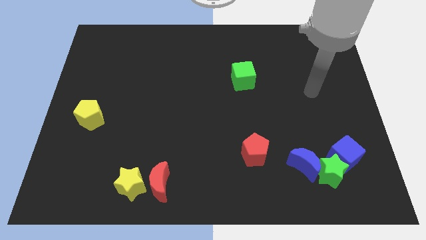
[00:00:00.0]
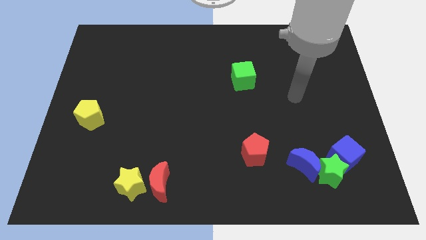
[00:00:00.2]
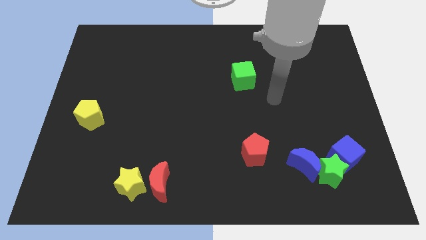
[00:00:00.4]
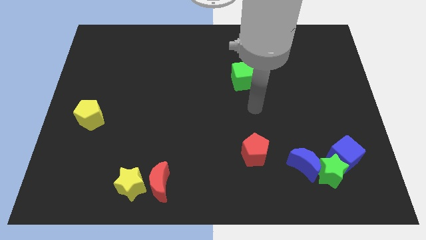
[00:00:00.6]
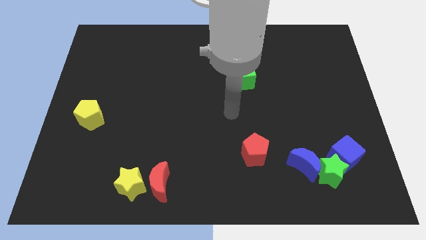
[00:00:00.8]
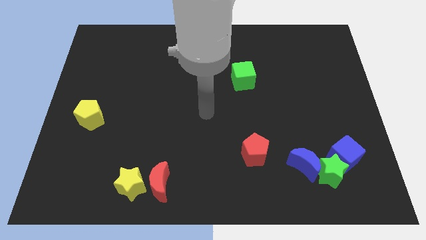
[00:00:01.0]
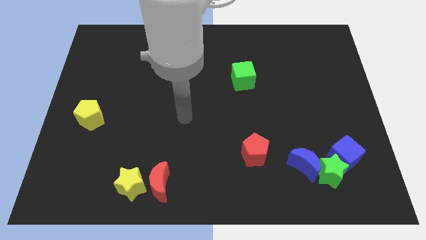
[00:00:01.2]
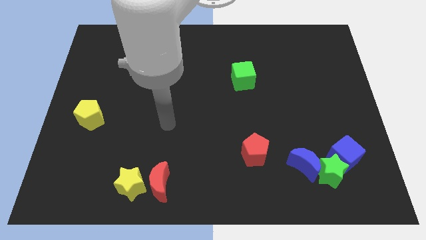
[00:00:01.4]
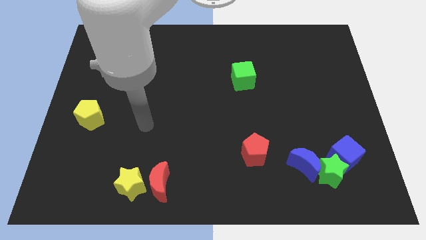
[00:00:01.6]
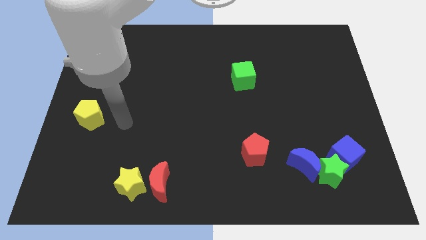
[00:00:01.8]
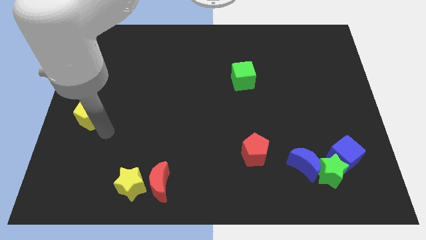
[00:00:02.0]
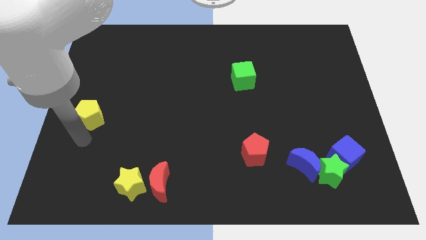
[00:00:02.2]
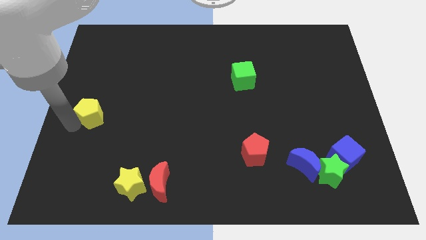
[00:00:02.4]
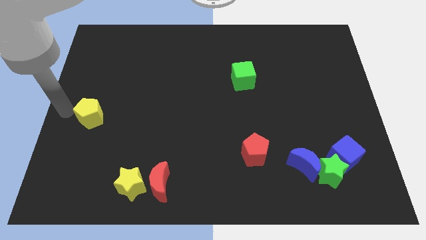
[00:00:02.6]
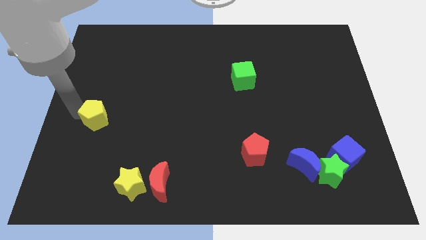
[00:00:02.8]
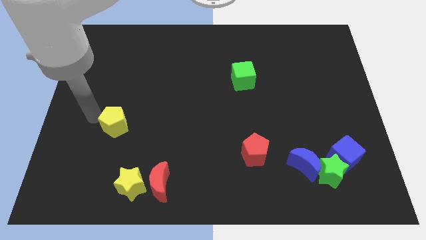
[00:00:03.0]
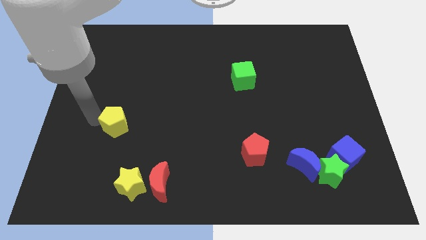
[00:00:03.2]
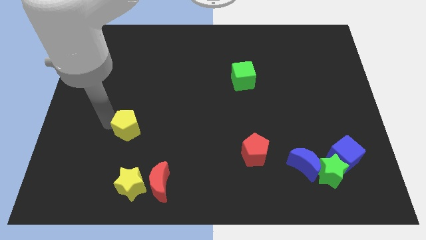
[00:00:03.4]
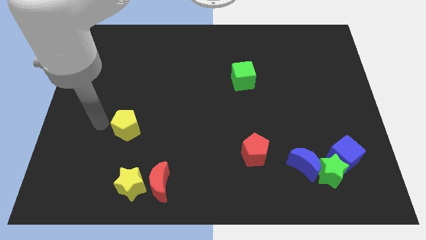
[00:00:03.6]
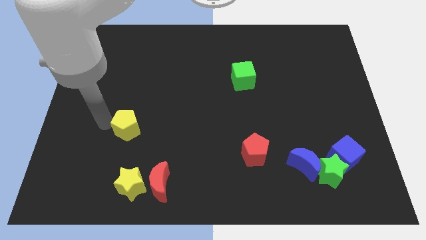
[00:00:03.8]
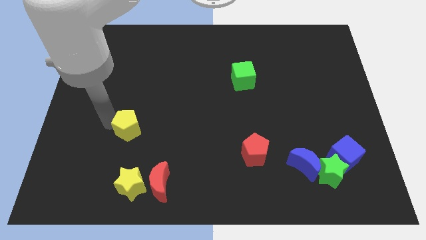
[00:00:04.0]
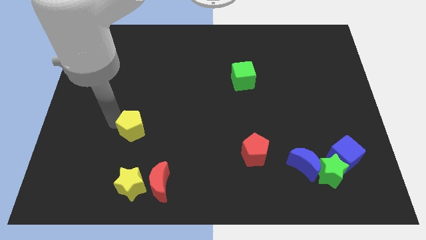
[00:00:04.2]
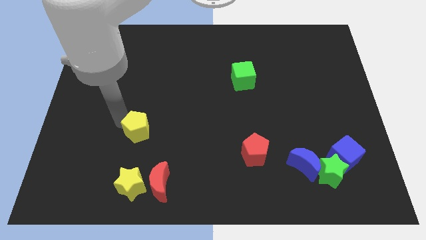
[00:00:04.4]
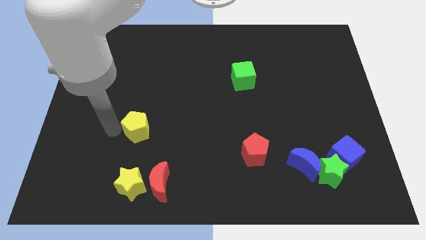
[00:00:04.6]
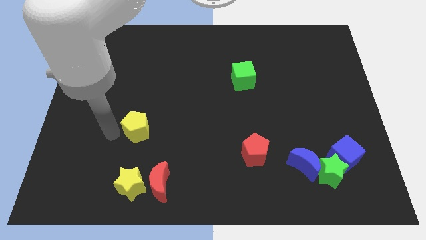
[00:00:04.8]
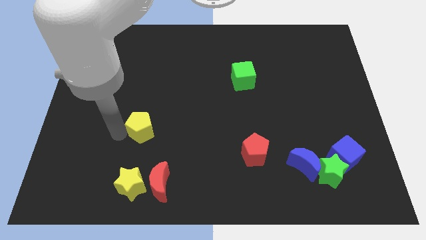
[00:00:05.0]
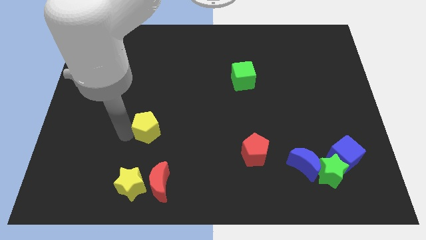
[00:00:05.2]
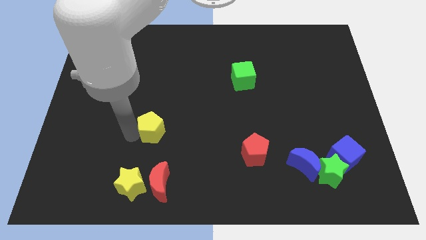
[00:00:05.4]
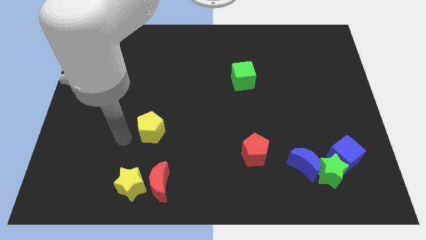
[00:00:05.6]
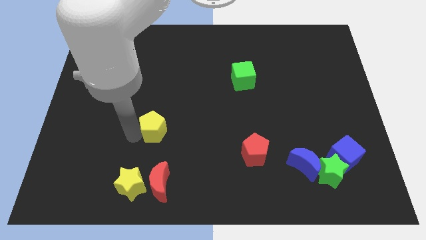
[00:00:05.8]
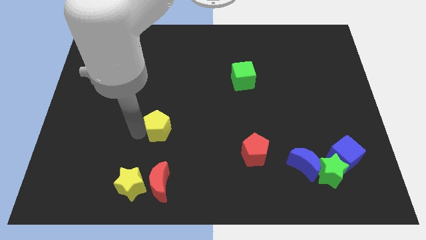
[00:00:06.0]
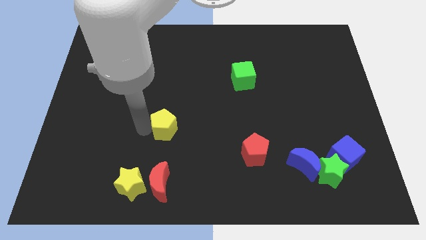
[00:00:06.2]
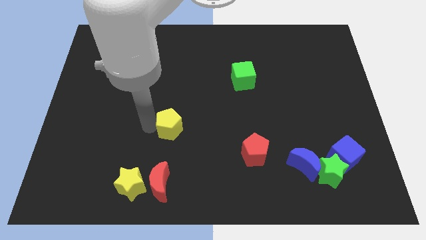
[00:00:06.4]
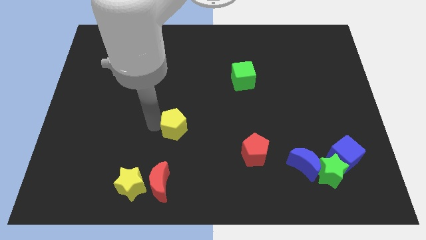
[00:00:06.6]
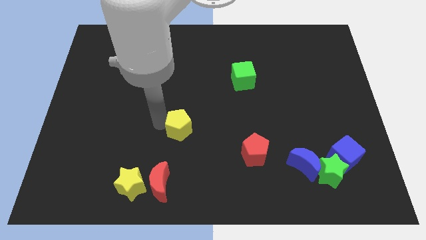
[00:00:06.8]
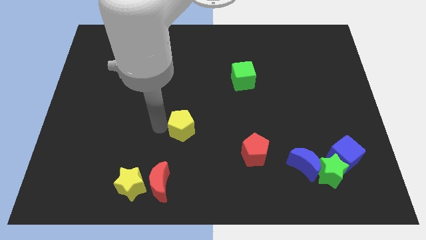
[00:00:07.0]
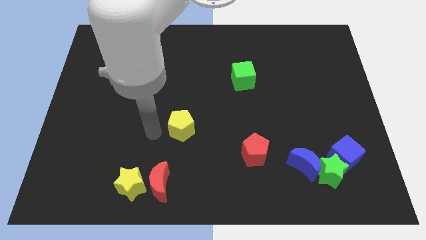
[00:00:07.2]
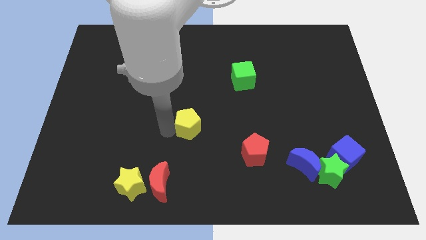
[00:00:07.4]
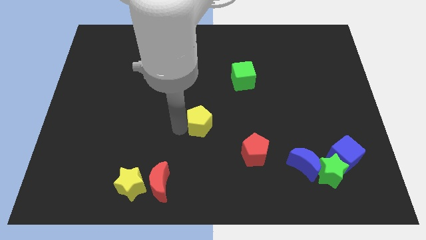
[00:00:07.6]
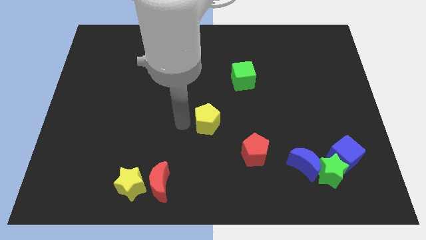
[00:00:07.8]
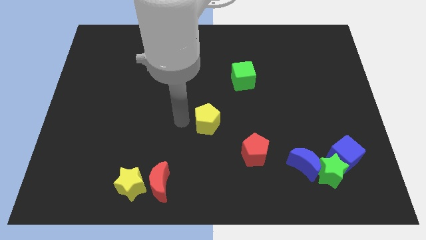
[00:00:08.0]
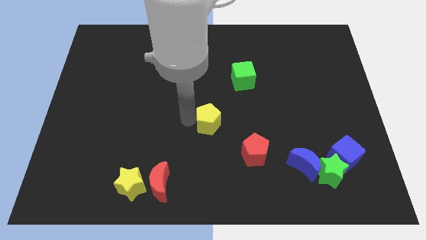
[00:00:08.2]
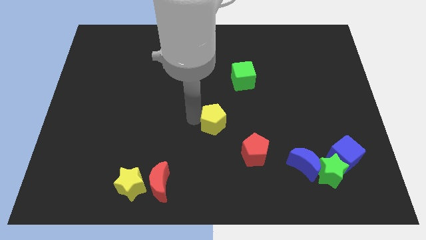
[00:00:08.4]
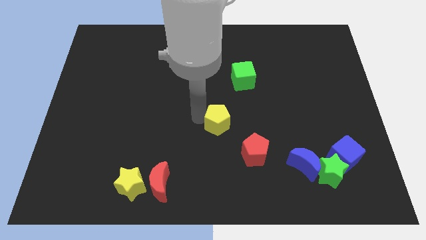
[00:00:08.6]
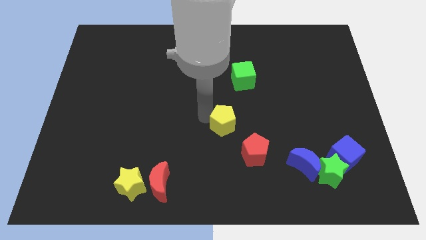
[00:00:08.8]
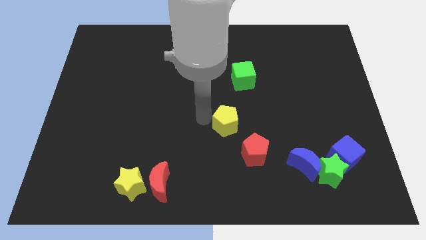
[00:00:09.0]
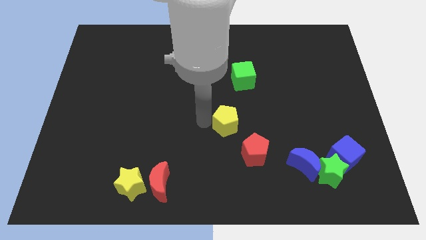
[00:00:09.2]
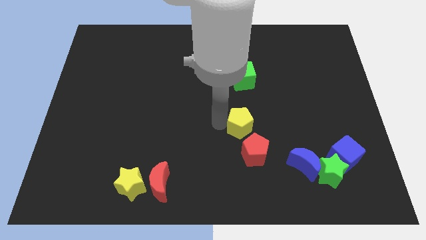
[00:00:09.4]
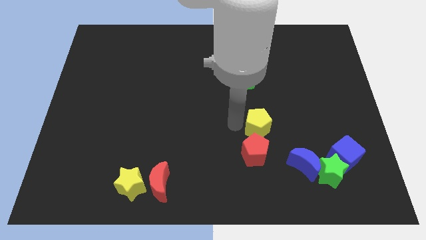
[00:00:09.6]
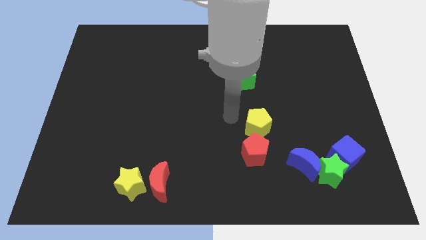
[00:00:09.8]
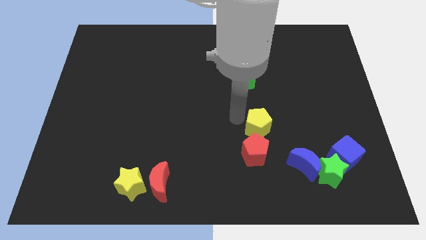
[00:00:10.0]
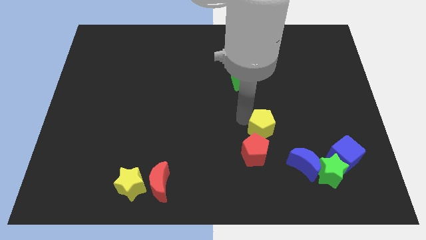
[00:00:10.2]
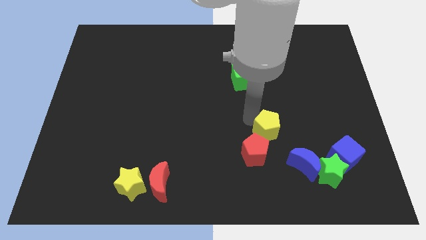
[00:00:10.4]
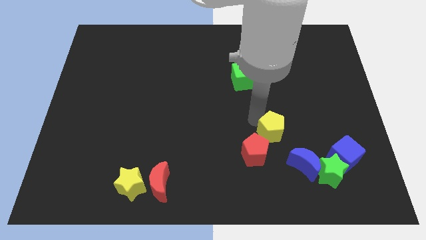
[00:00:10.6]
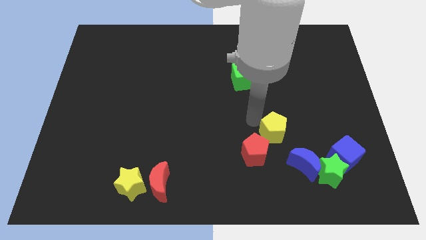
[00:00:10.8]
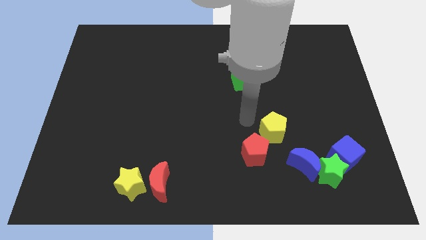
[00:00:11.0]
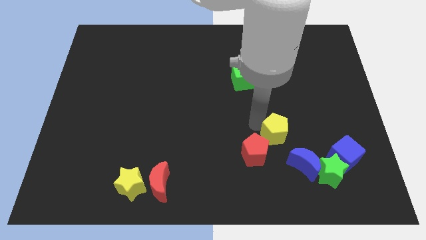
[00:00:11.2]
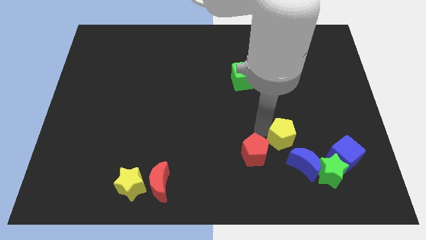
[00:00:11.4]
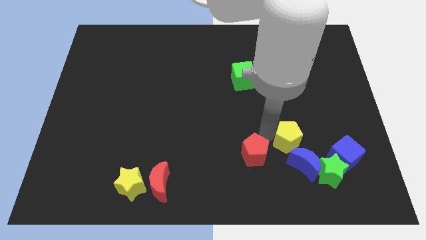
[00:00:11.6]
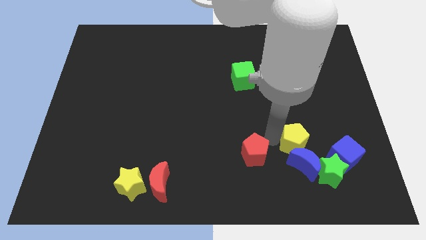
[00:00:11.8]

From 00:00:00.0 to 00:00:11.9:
move the yellow pentagon to the top left of the blue cube

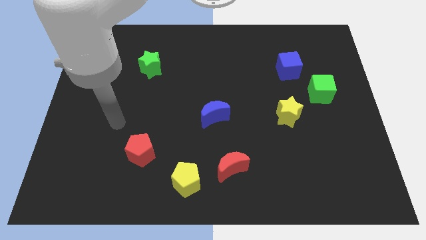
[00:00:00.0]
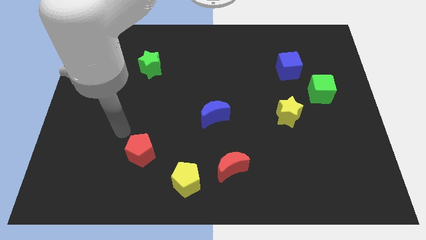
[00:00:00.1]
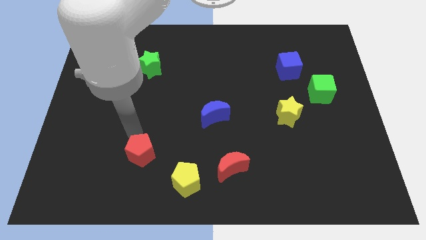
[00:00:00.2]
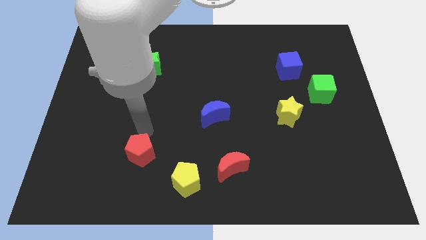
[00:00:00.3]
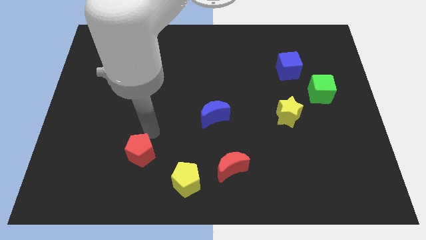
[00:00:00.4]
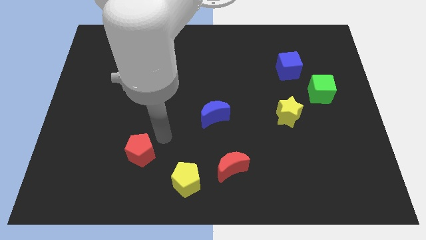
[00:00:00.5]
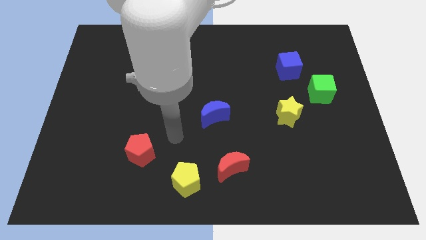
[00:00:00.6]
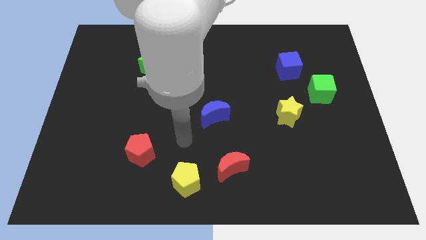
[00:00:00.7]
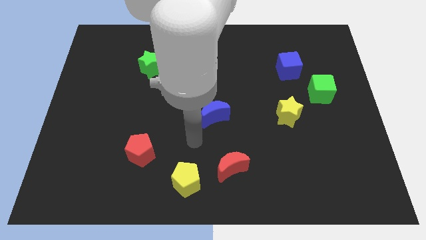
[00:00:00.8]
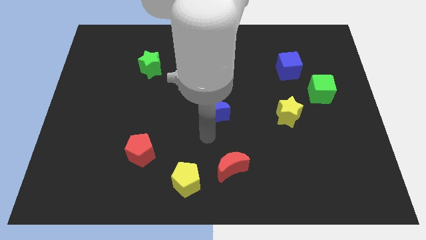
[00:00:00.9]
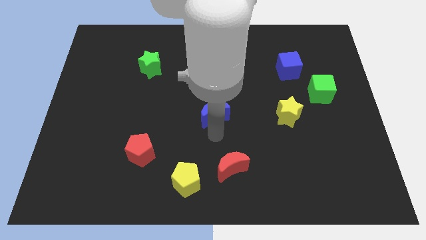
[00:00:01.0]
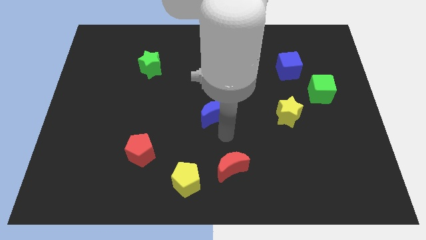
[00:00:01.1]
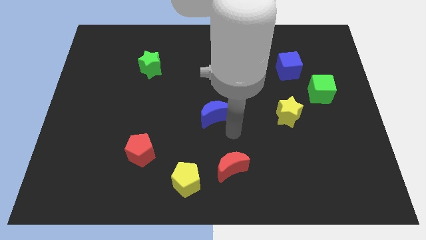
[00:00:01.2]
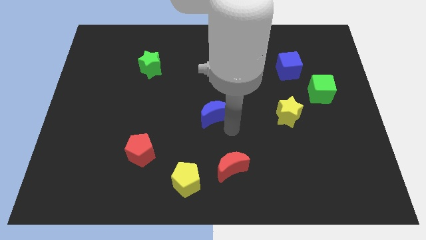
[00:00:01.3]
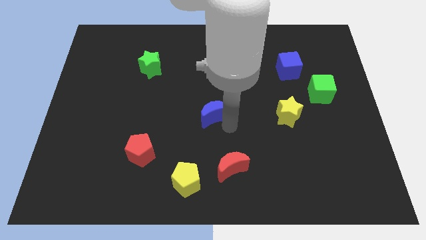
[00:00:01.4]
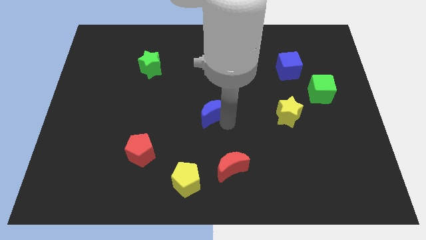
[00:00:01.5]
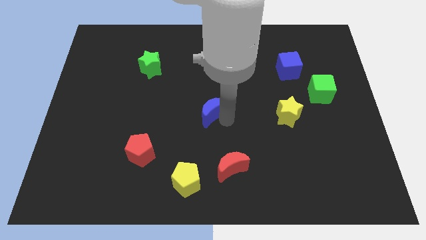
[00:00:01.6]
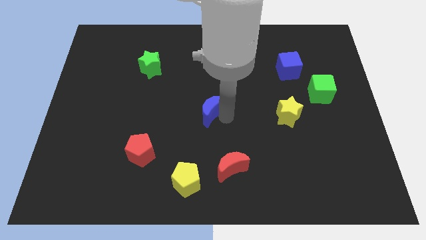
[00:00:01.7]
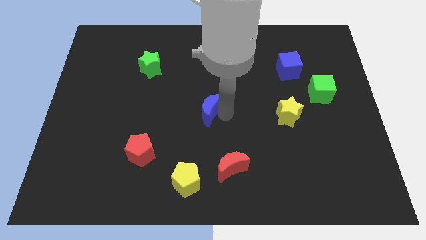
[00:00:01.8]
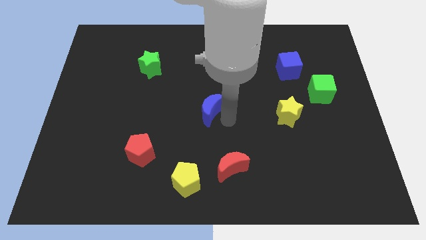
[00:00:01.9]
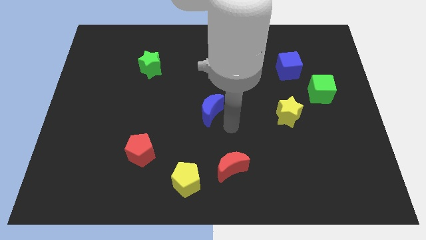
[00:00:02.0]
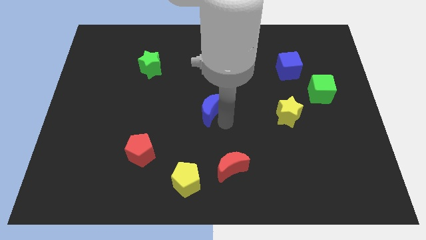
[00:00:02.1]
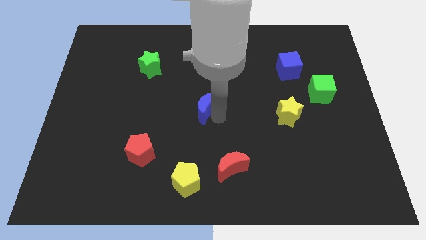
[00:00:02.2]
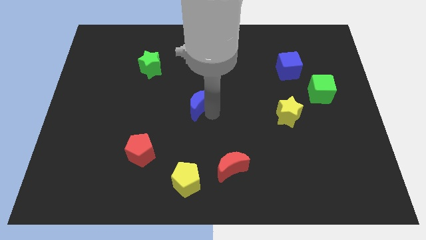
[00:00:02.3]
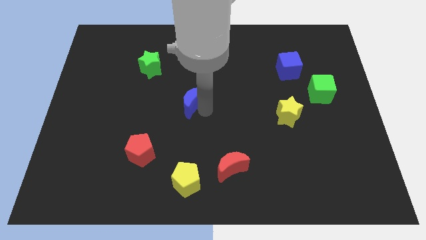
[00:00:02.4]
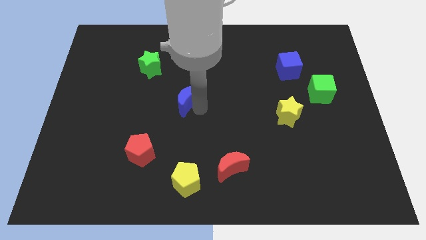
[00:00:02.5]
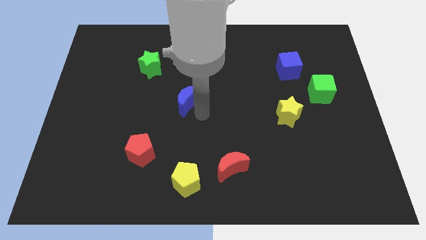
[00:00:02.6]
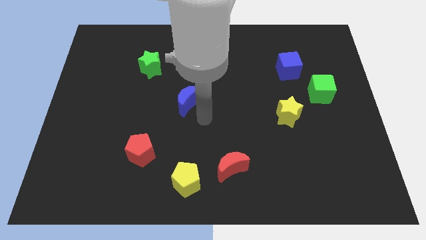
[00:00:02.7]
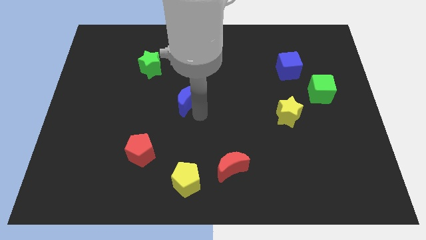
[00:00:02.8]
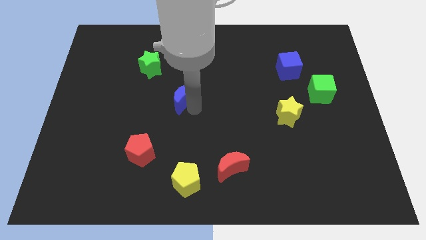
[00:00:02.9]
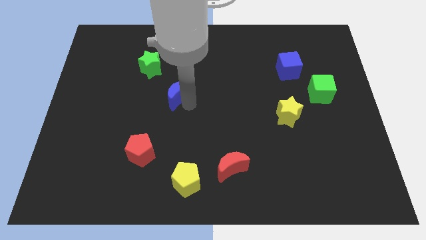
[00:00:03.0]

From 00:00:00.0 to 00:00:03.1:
move the blue moon diagonally down and to the right of the green star
